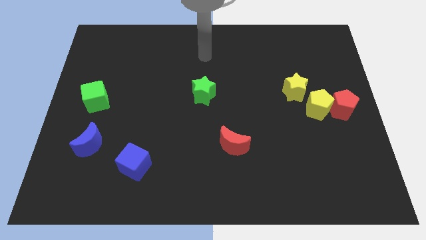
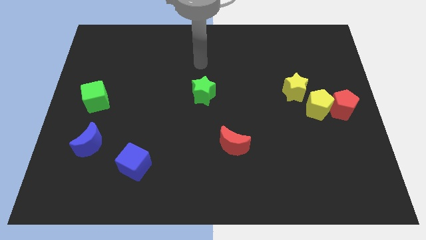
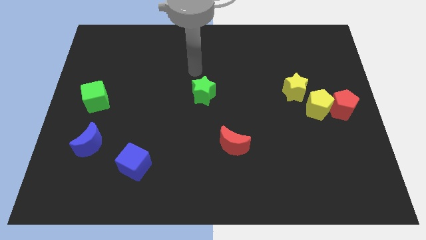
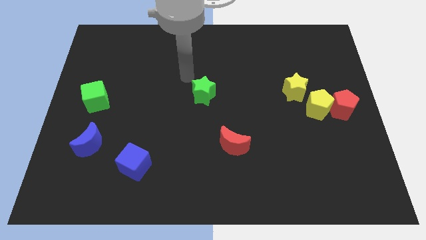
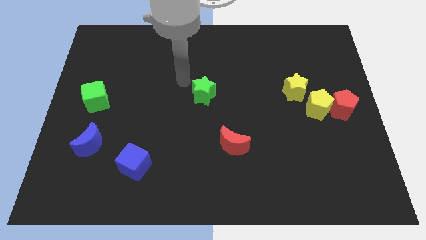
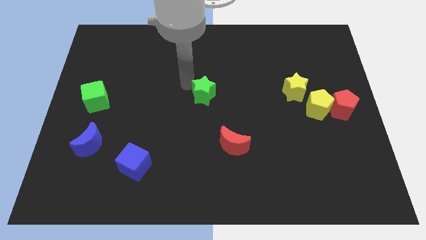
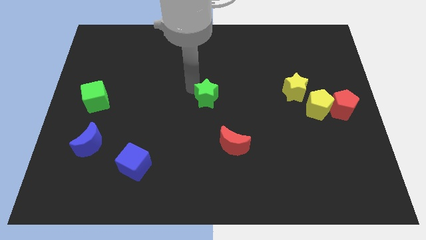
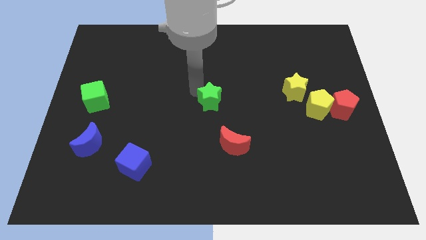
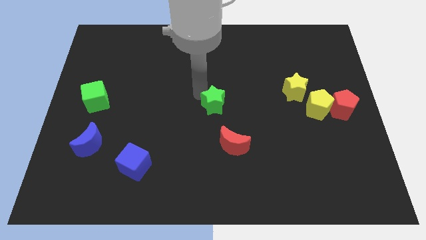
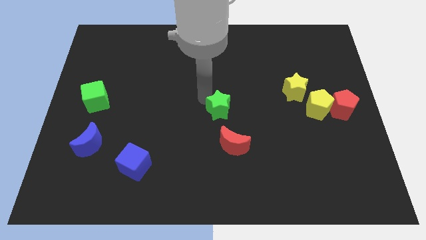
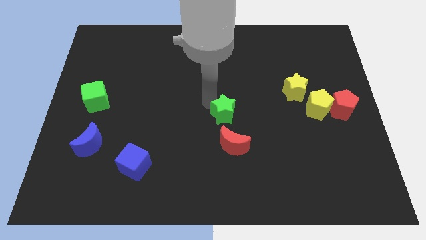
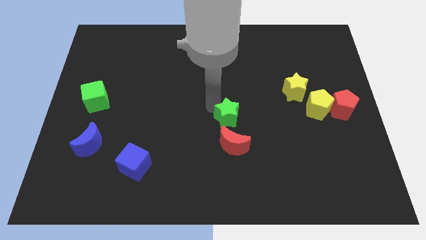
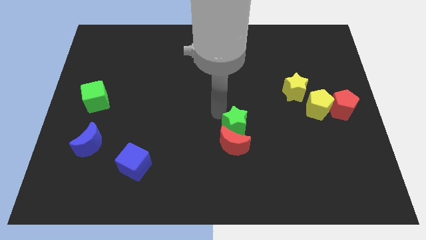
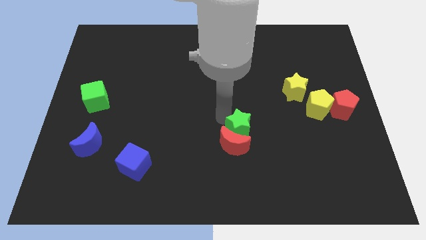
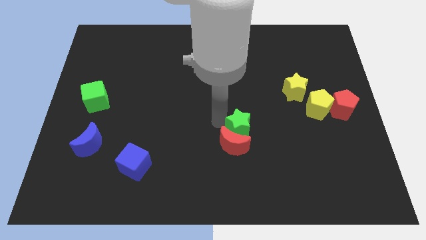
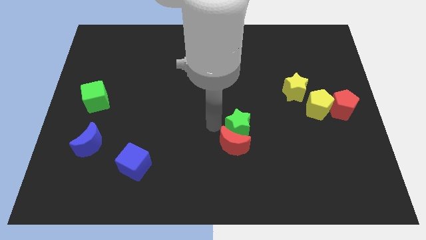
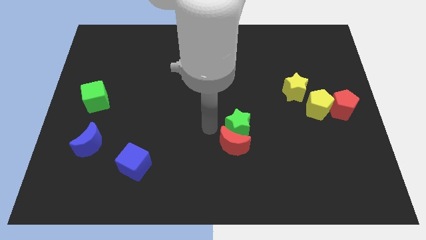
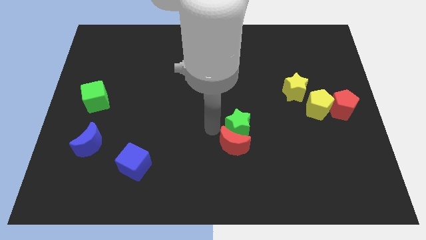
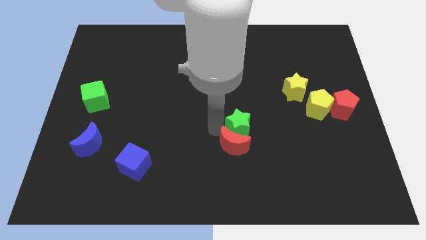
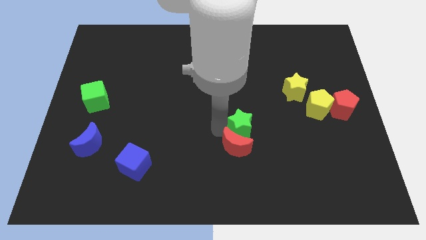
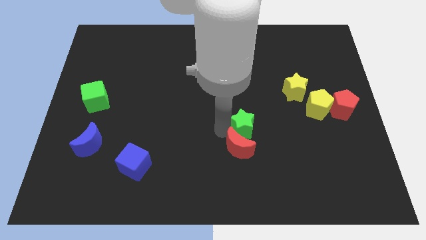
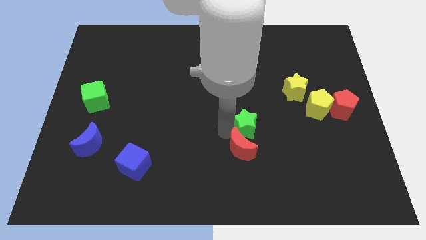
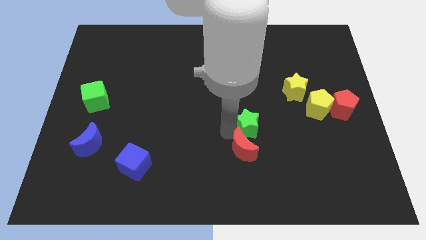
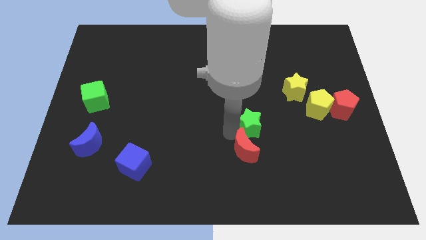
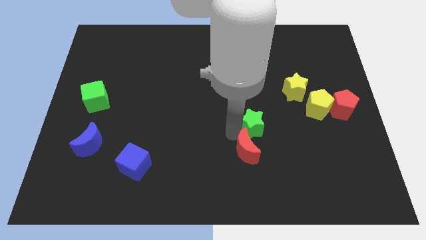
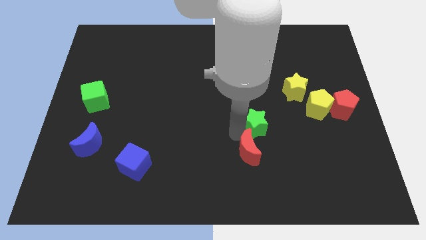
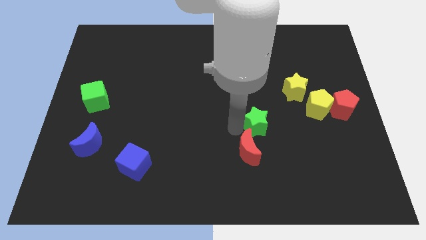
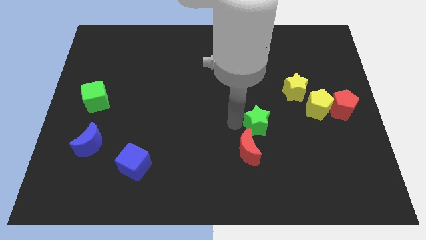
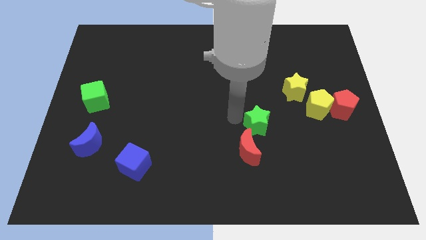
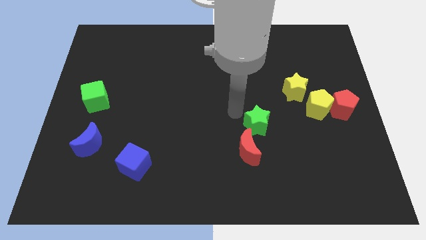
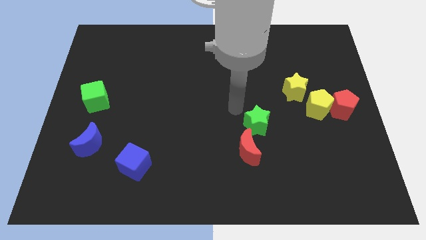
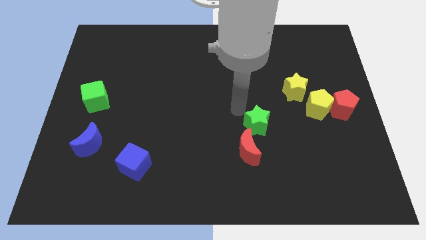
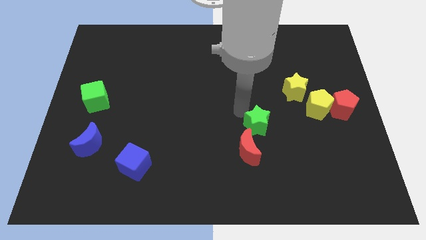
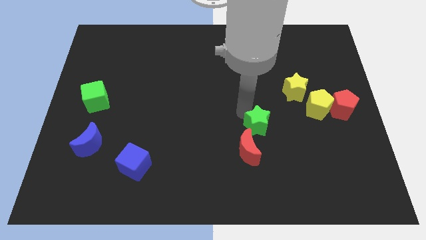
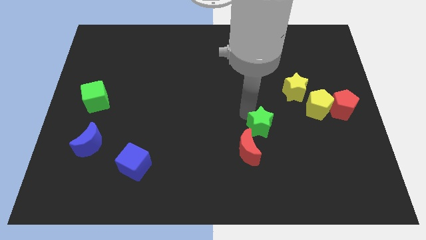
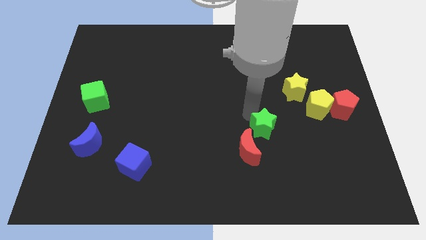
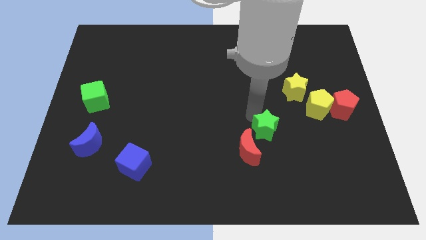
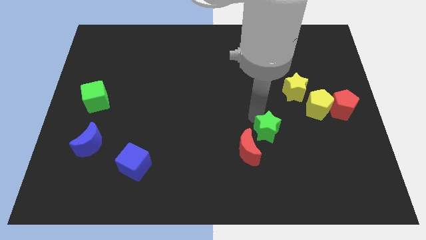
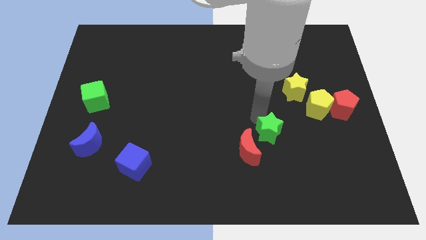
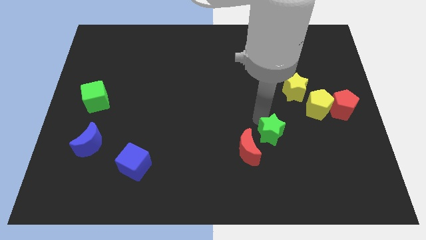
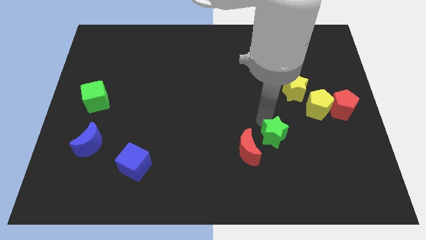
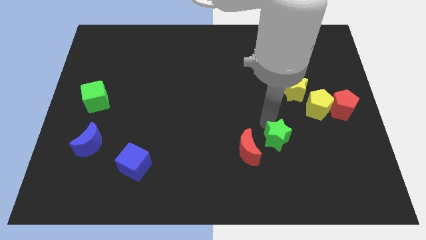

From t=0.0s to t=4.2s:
push the green star downwards and right diagonally

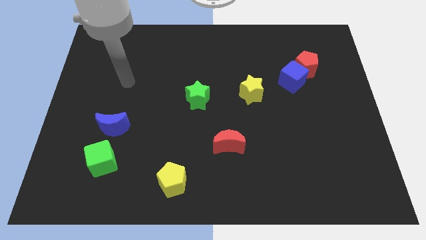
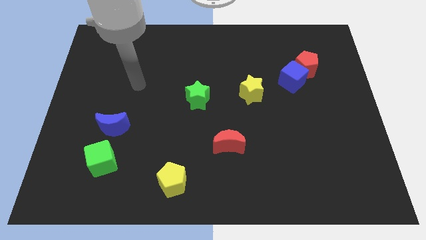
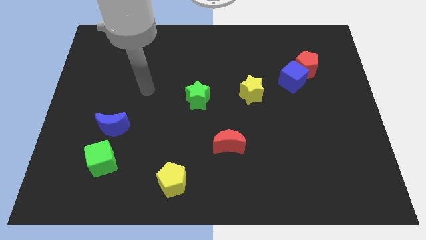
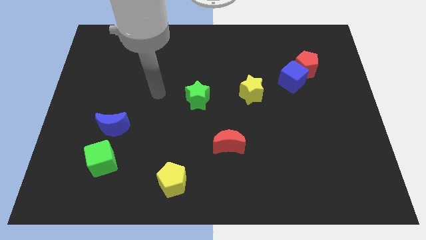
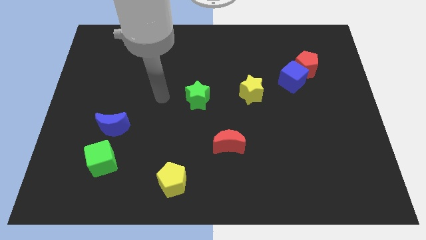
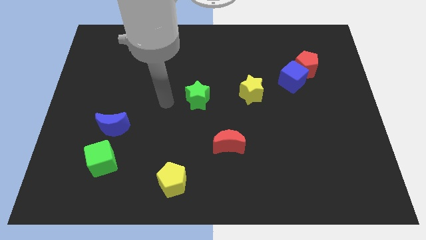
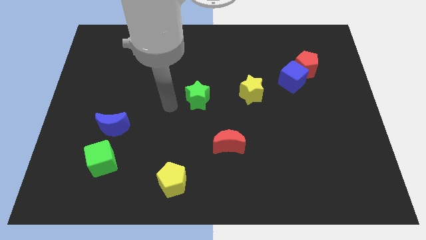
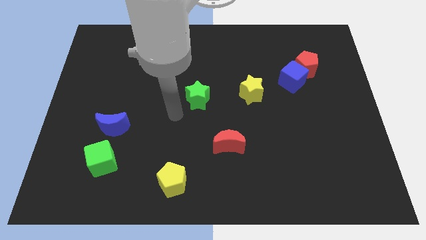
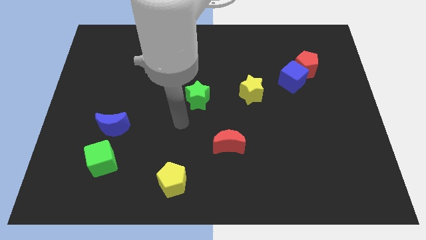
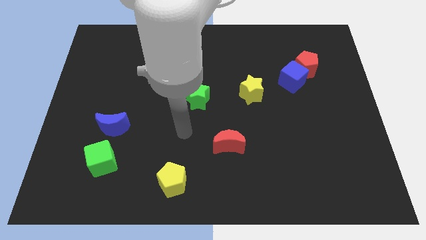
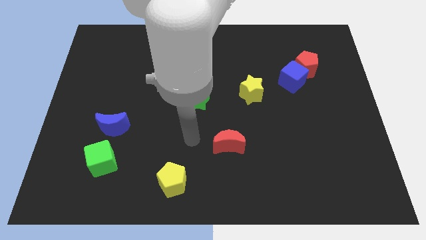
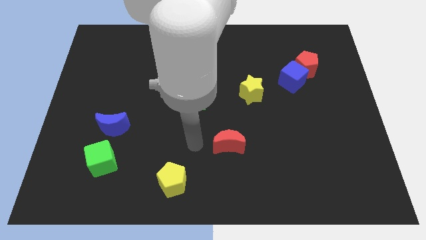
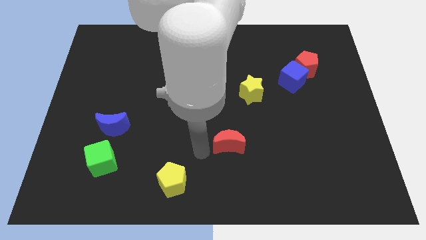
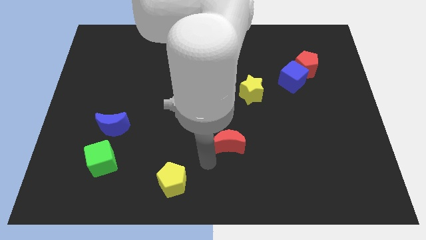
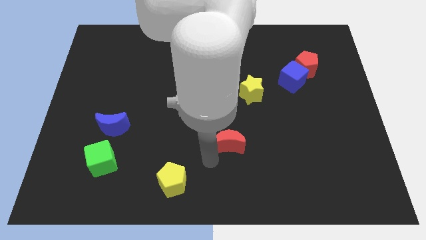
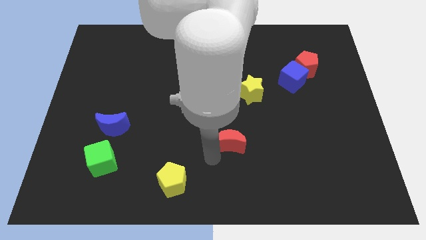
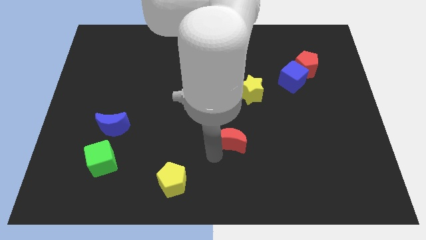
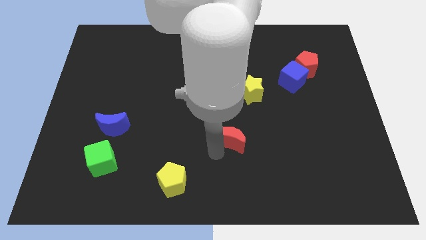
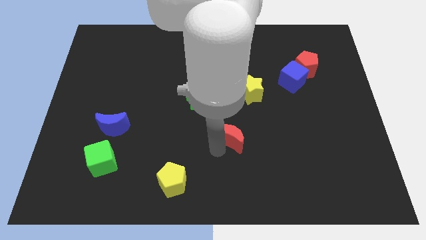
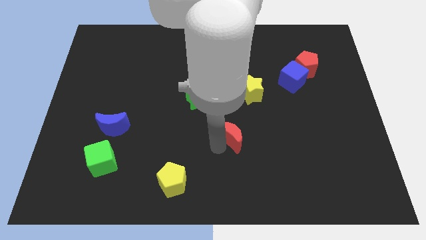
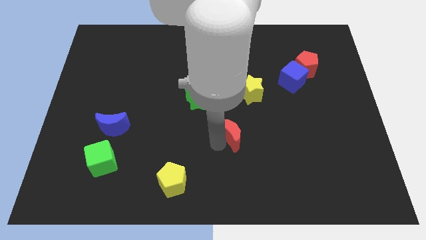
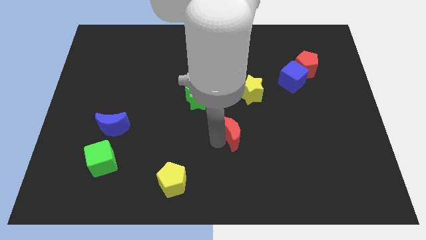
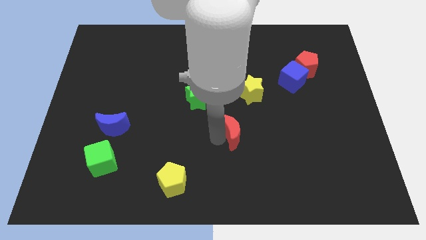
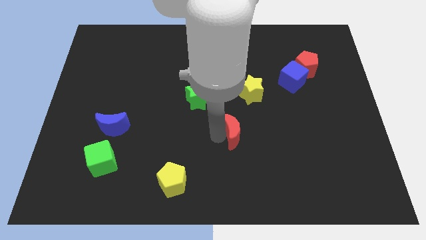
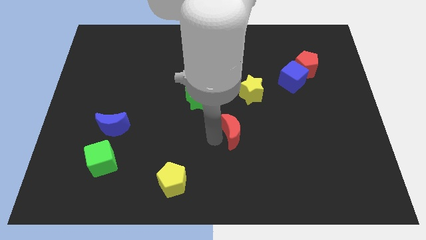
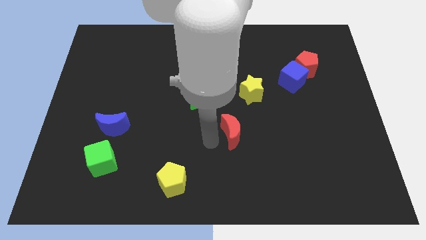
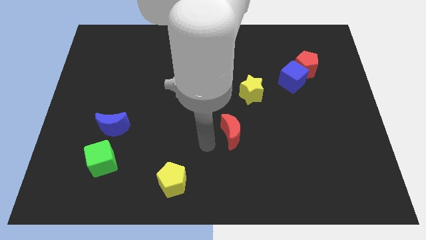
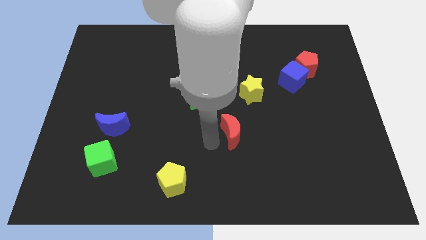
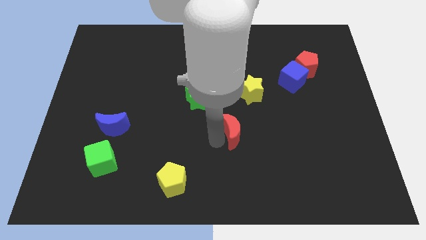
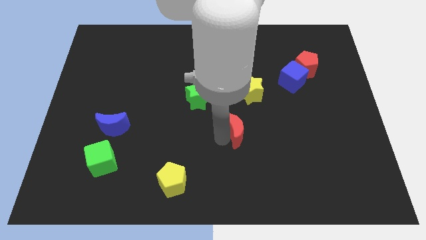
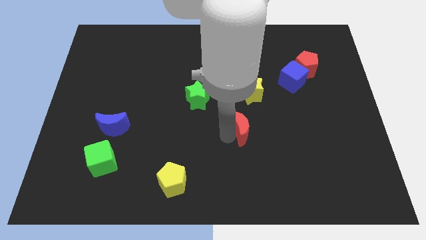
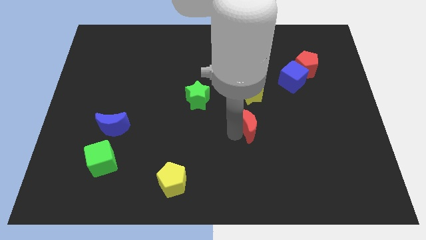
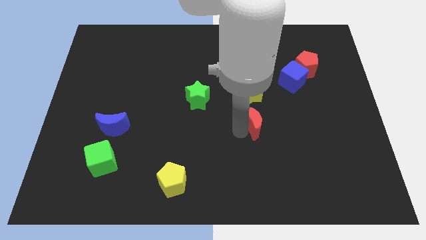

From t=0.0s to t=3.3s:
slightly push the red moon diagonally upwards and to the right

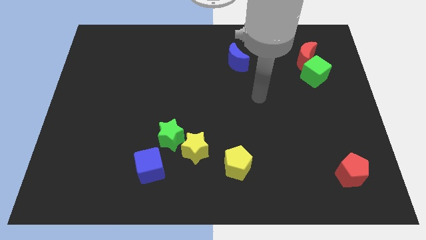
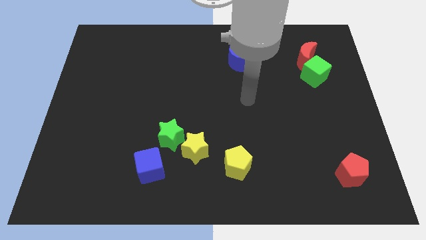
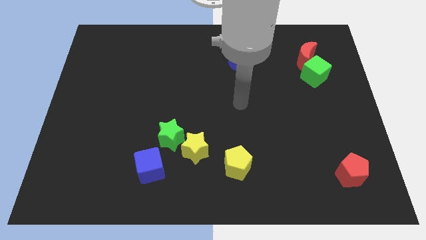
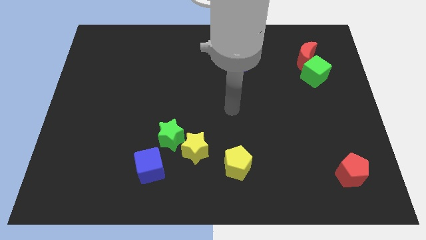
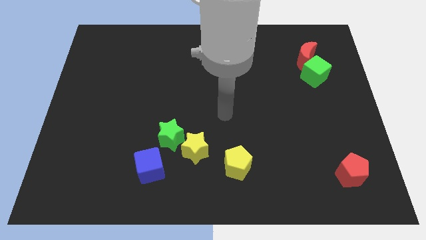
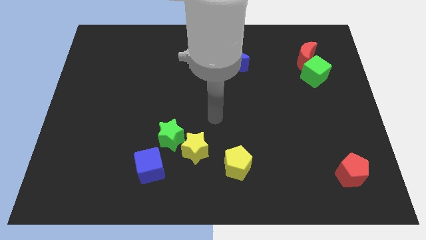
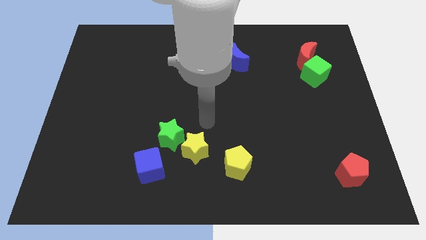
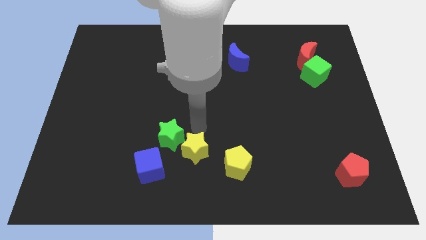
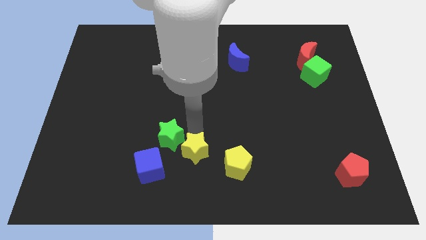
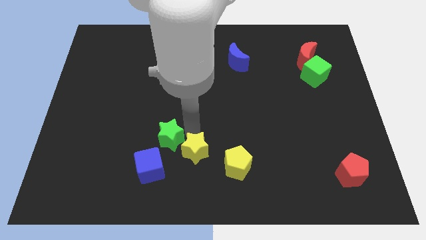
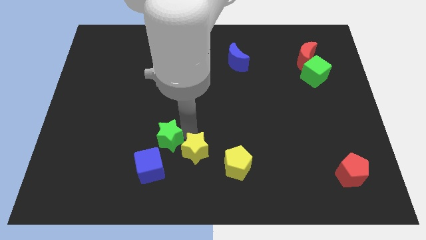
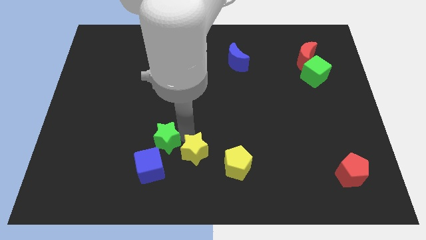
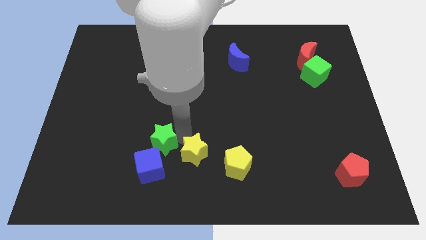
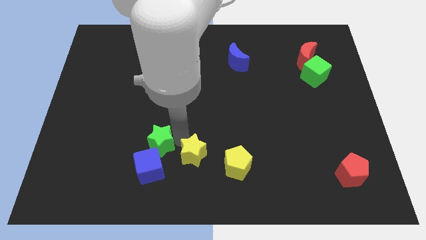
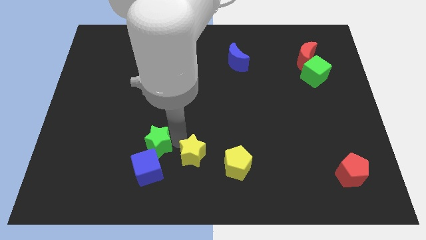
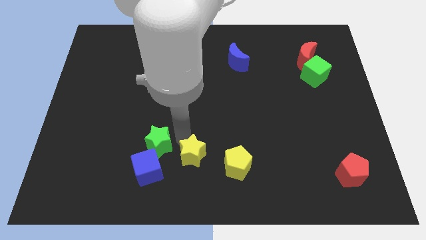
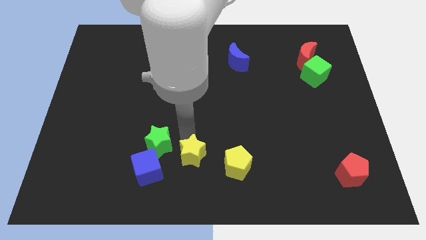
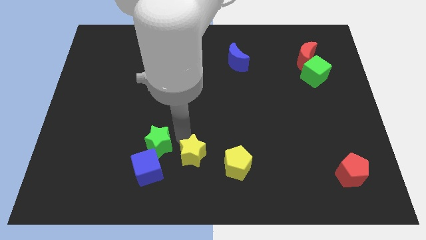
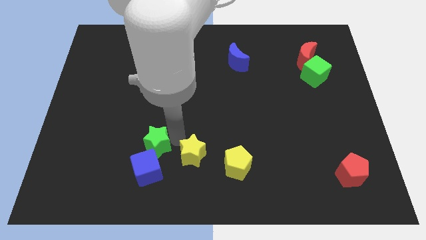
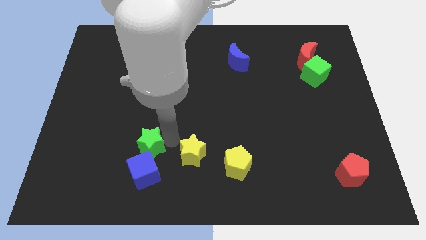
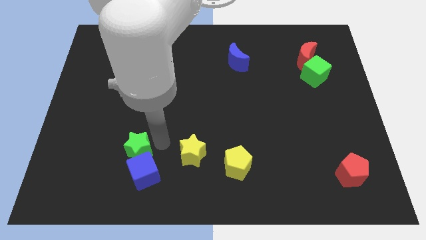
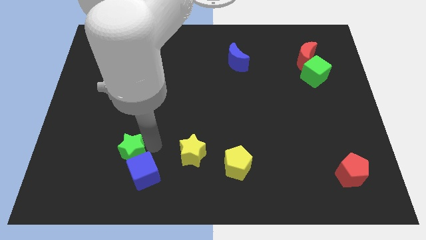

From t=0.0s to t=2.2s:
slightly push the green star to the left
